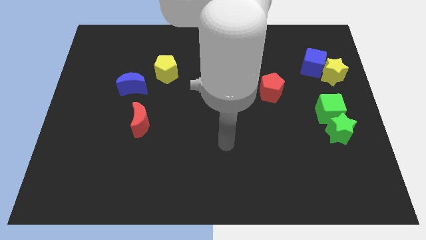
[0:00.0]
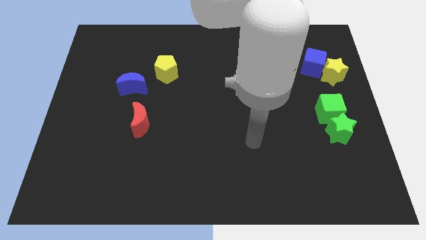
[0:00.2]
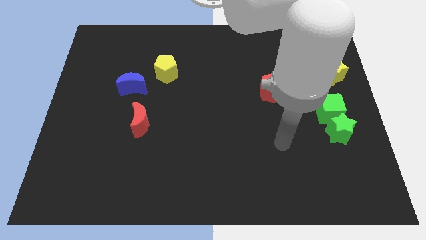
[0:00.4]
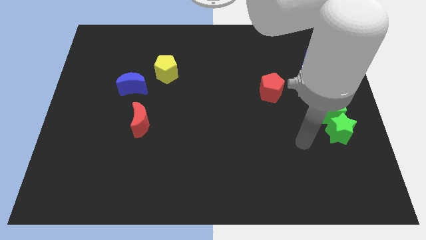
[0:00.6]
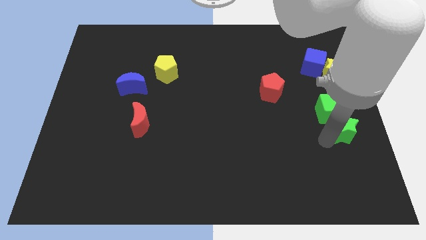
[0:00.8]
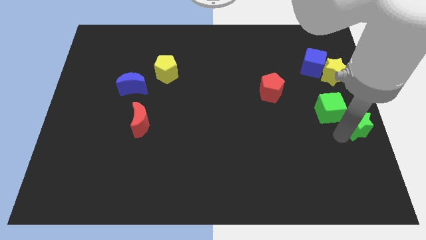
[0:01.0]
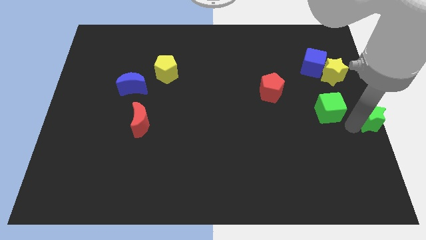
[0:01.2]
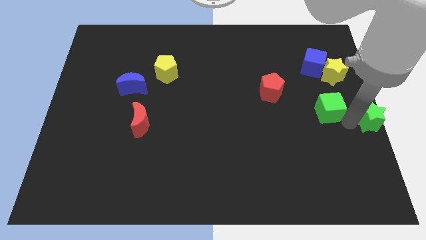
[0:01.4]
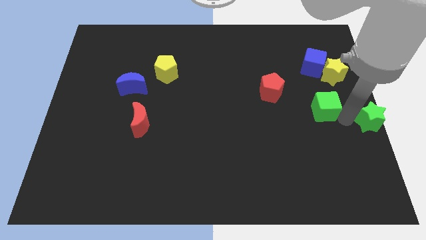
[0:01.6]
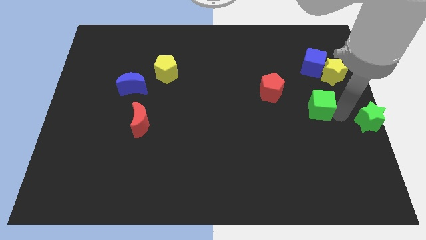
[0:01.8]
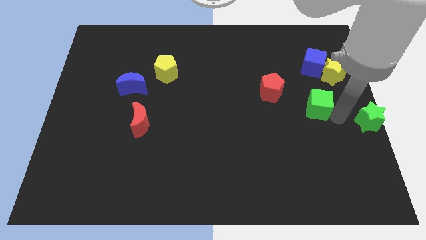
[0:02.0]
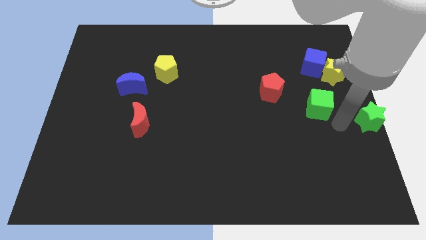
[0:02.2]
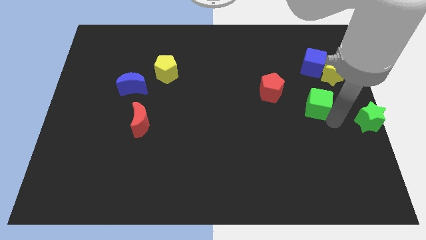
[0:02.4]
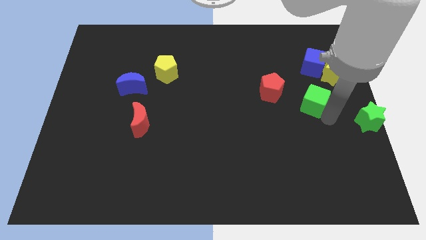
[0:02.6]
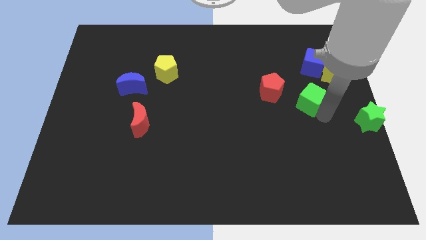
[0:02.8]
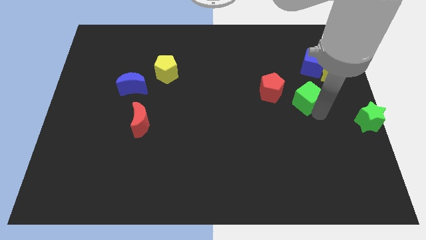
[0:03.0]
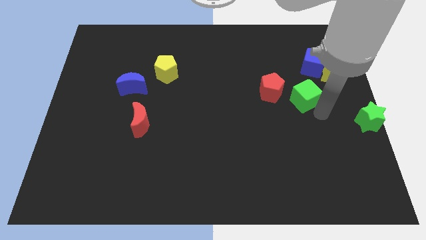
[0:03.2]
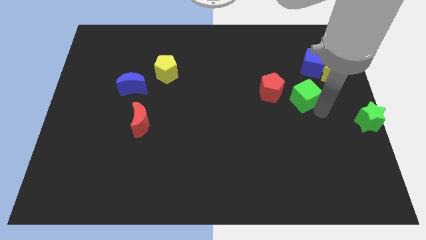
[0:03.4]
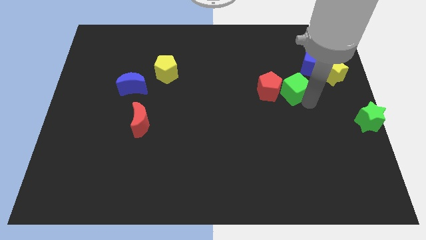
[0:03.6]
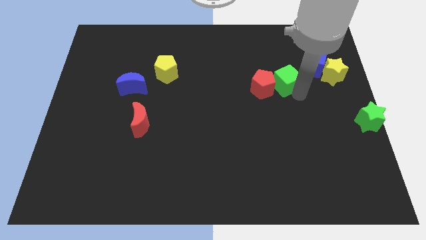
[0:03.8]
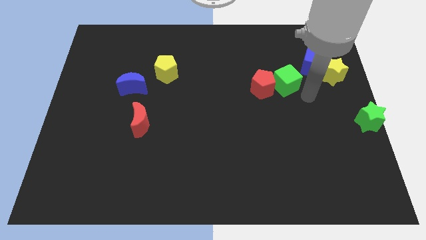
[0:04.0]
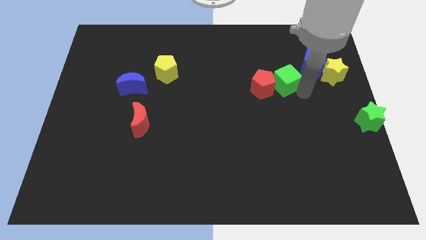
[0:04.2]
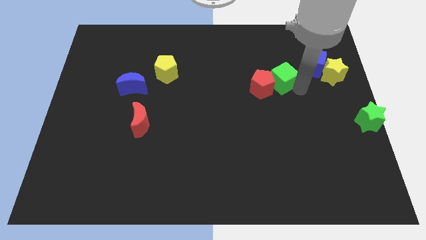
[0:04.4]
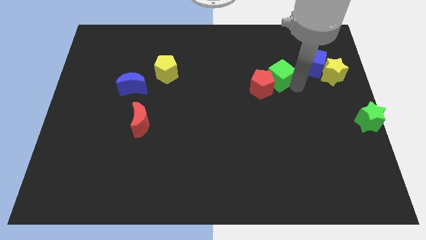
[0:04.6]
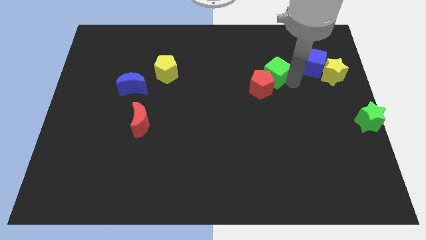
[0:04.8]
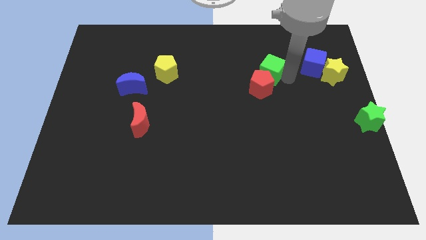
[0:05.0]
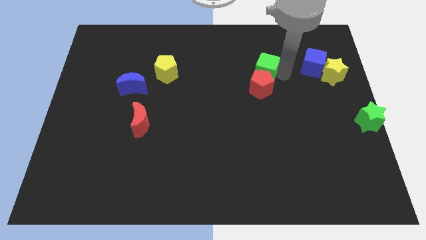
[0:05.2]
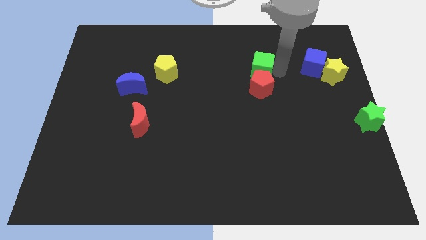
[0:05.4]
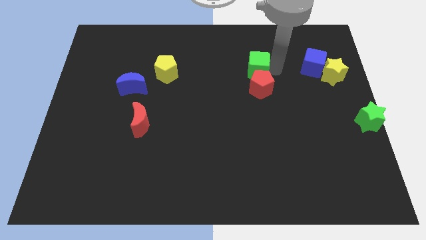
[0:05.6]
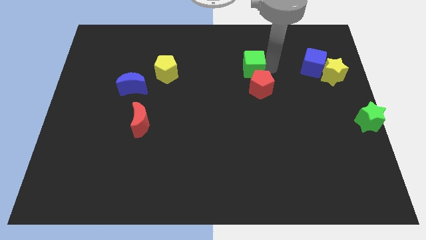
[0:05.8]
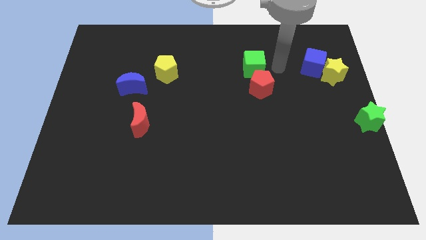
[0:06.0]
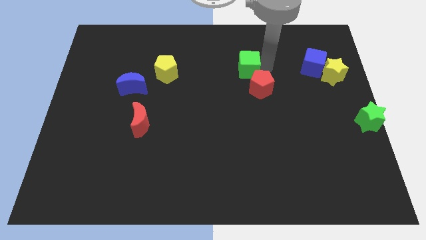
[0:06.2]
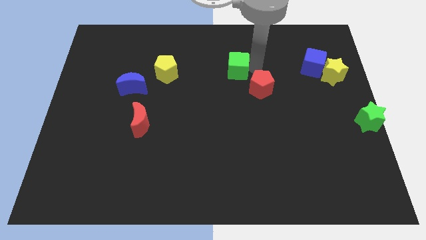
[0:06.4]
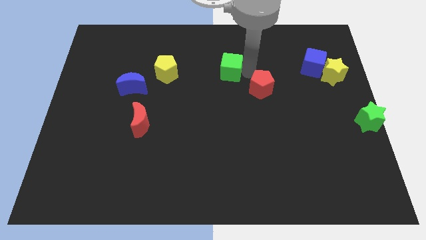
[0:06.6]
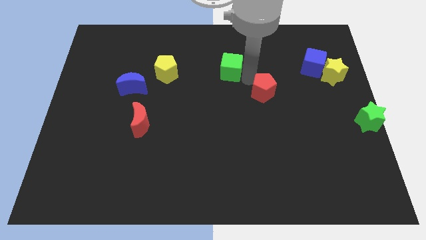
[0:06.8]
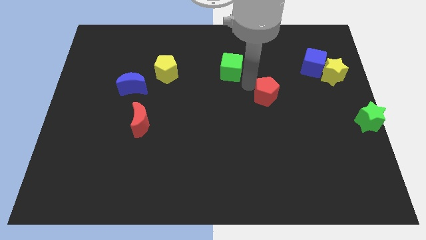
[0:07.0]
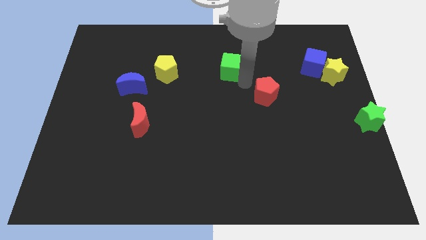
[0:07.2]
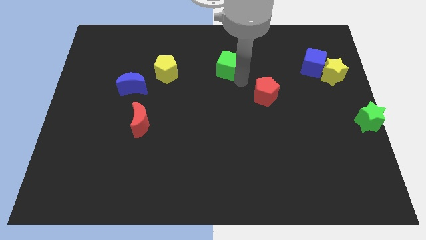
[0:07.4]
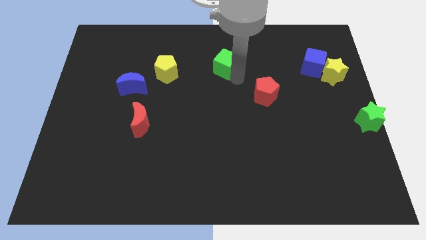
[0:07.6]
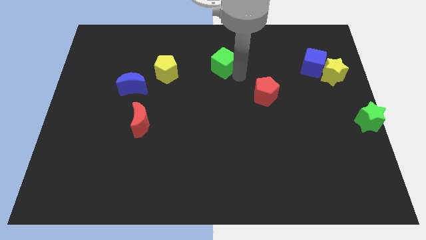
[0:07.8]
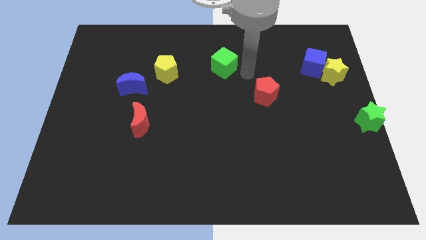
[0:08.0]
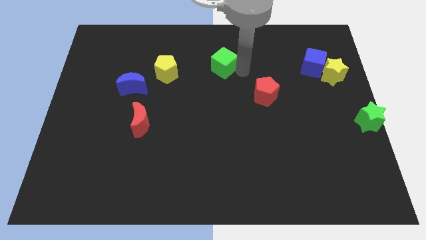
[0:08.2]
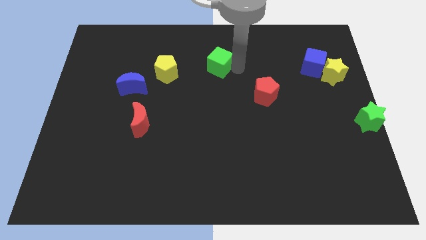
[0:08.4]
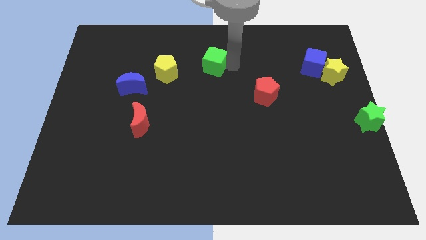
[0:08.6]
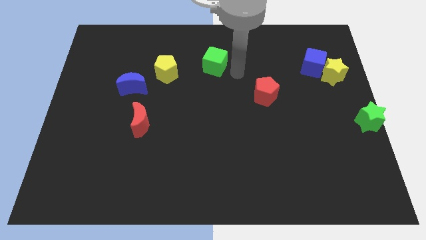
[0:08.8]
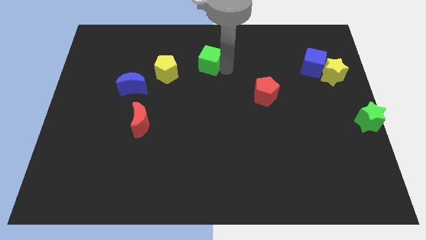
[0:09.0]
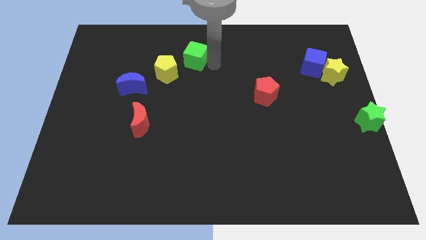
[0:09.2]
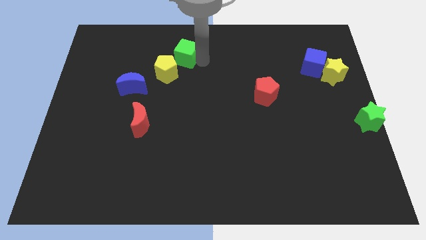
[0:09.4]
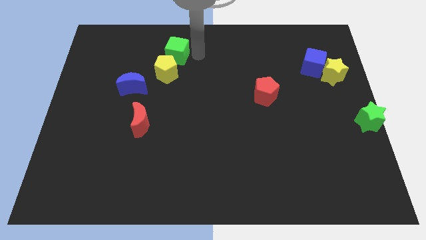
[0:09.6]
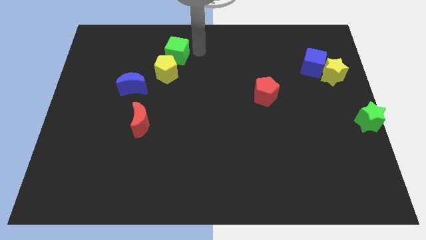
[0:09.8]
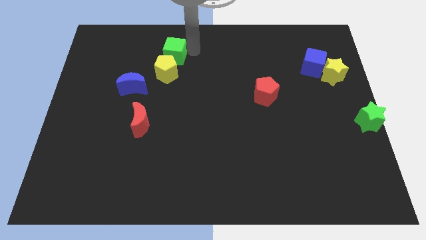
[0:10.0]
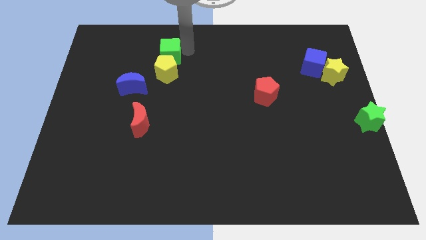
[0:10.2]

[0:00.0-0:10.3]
move the green cube to the top left of the yellow pentagon
